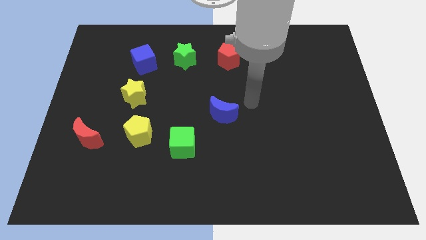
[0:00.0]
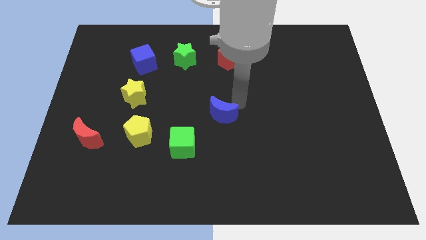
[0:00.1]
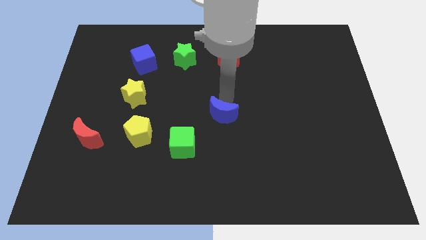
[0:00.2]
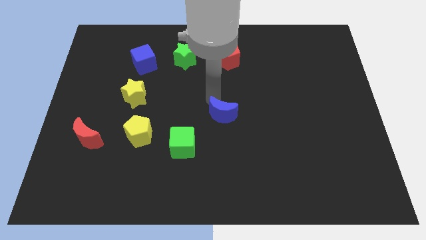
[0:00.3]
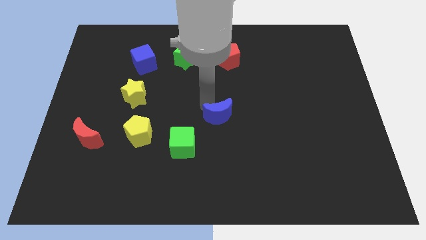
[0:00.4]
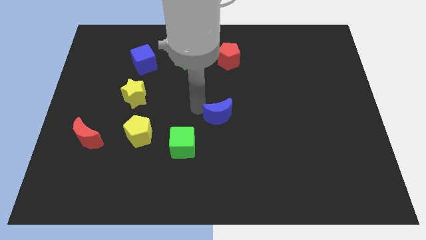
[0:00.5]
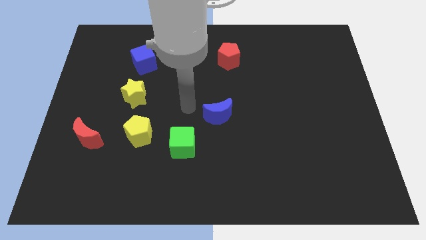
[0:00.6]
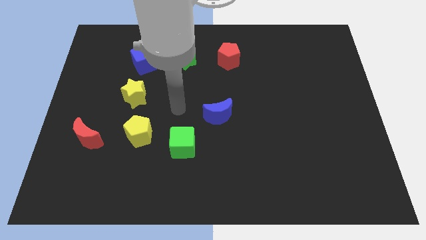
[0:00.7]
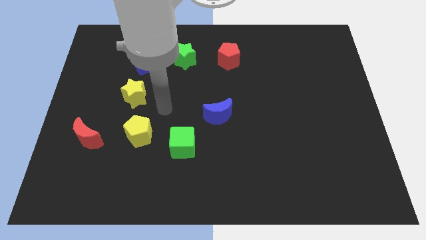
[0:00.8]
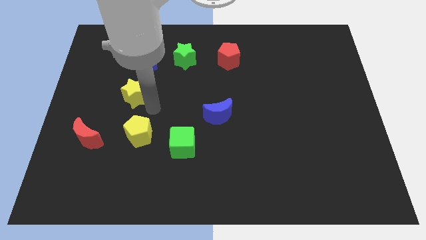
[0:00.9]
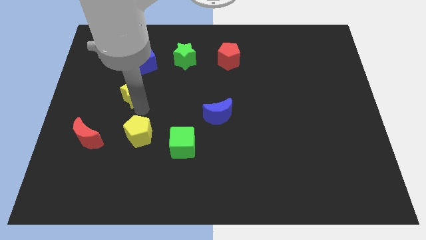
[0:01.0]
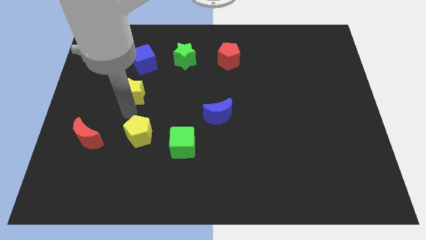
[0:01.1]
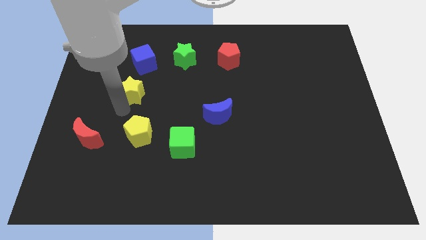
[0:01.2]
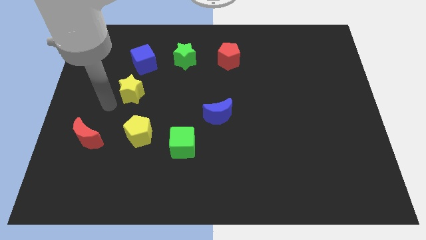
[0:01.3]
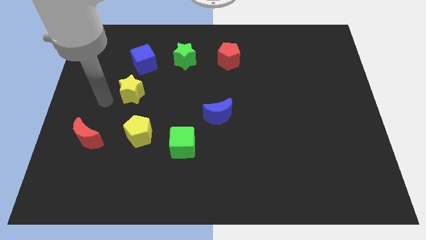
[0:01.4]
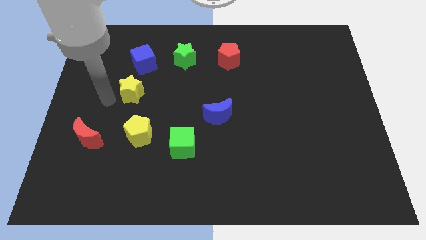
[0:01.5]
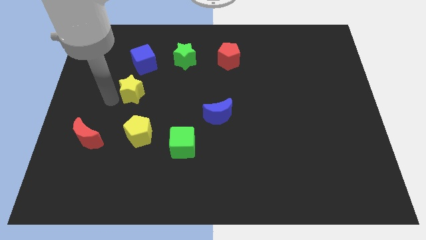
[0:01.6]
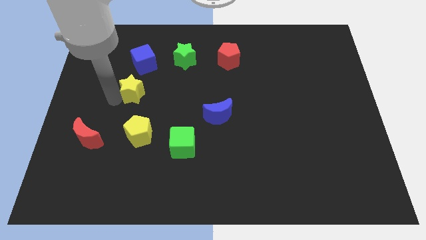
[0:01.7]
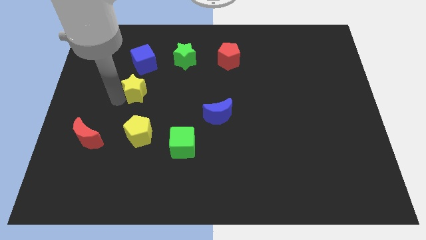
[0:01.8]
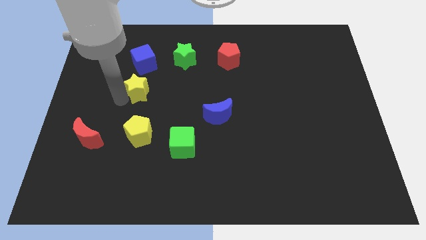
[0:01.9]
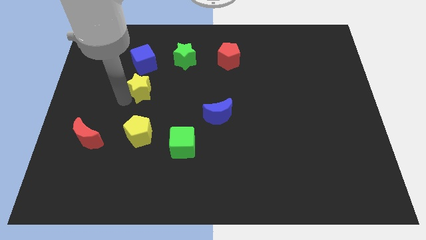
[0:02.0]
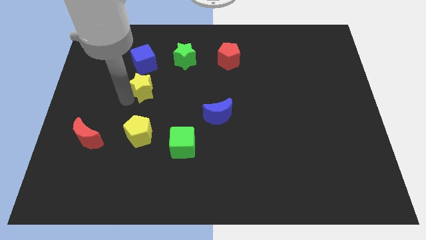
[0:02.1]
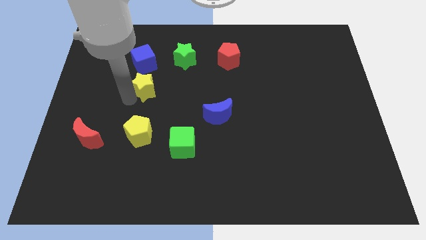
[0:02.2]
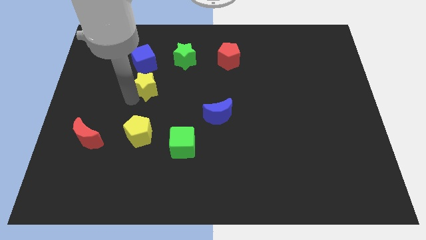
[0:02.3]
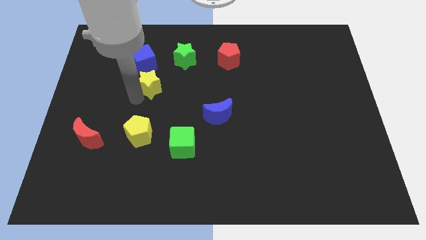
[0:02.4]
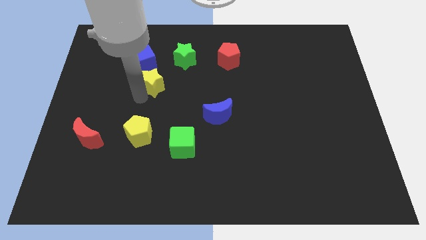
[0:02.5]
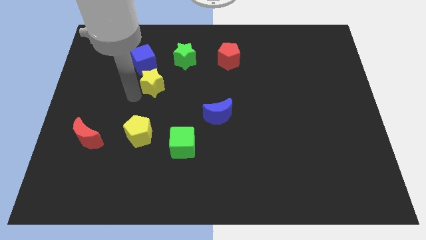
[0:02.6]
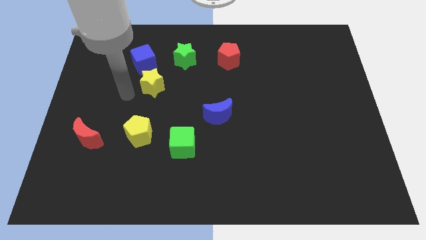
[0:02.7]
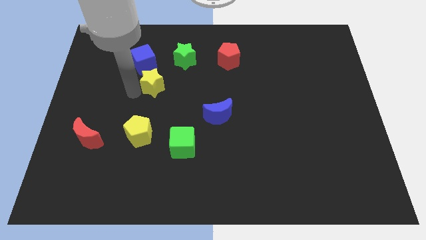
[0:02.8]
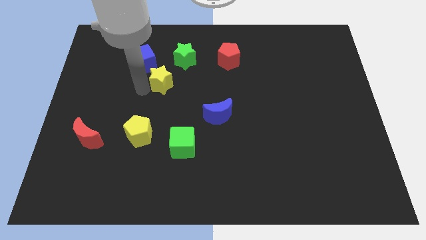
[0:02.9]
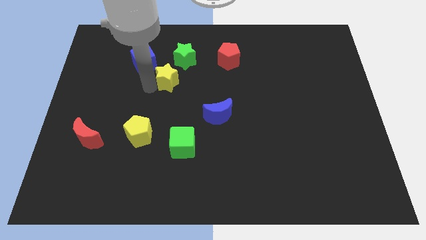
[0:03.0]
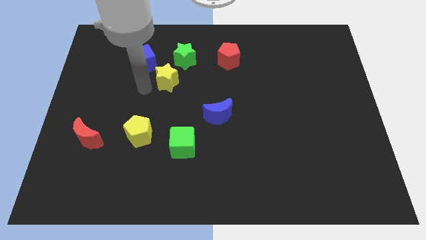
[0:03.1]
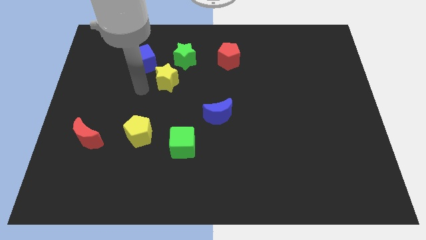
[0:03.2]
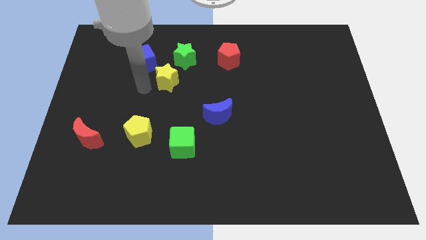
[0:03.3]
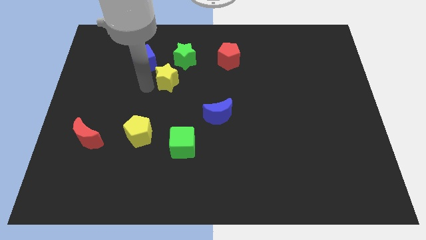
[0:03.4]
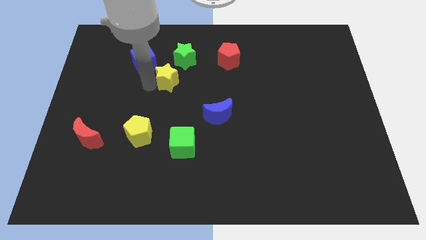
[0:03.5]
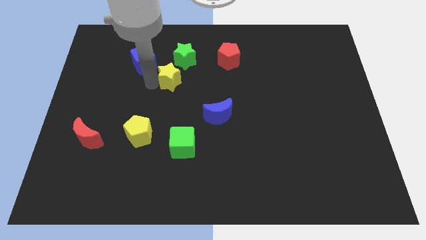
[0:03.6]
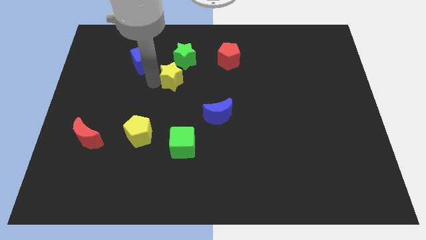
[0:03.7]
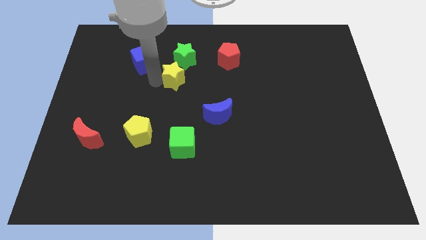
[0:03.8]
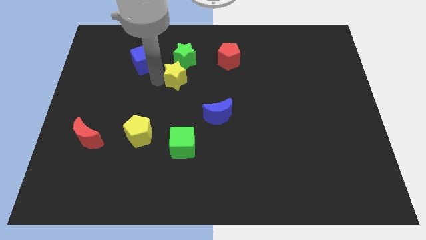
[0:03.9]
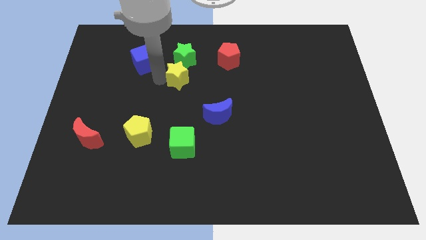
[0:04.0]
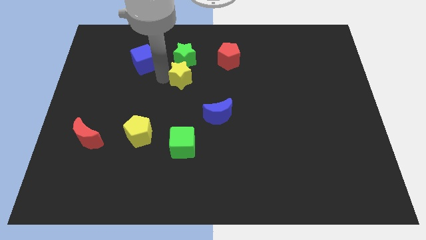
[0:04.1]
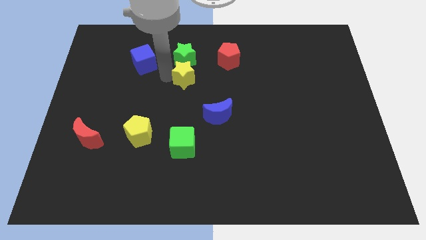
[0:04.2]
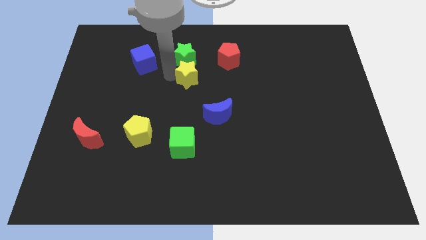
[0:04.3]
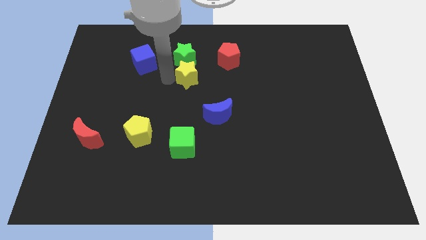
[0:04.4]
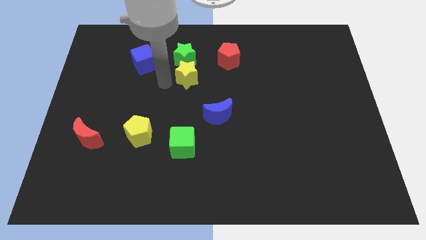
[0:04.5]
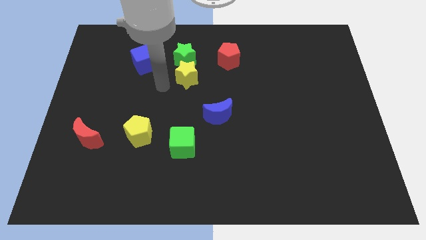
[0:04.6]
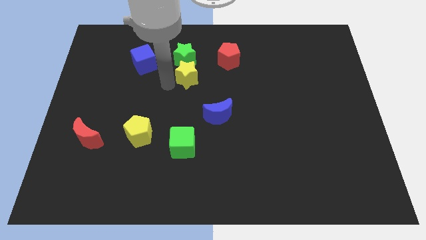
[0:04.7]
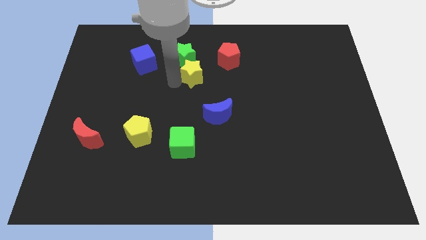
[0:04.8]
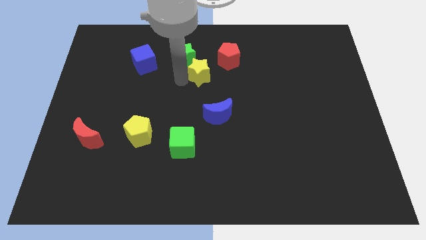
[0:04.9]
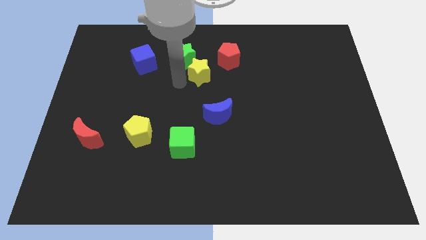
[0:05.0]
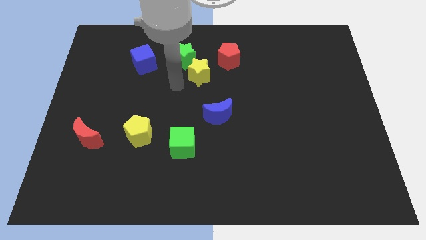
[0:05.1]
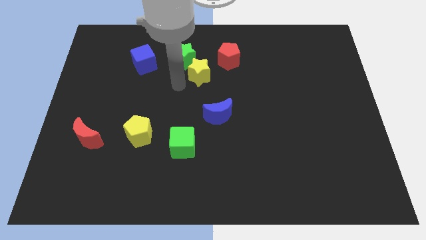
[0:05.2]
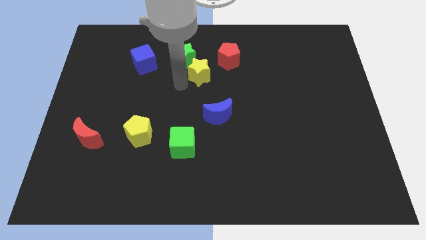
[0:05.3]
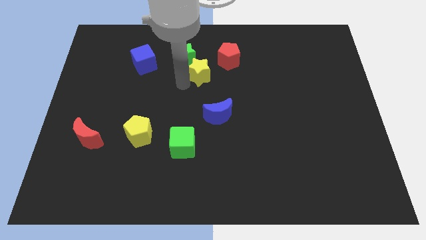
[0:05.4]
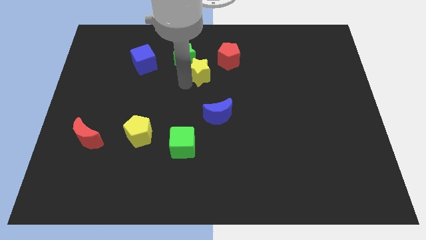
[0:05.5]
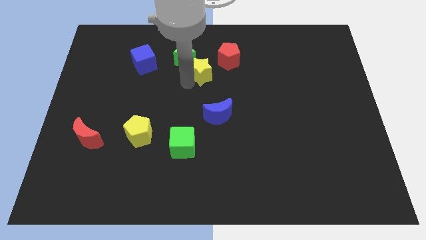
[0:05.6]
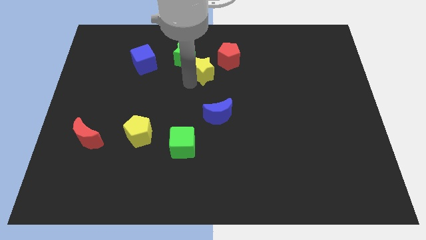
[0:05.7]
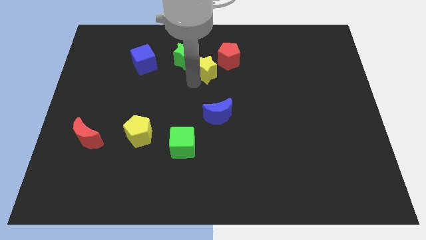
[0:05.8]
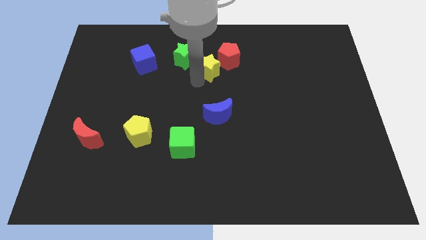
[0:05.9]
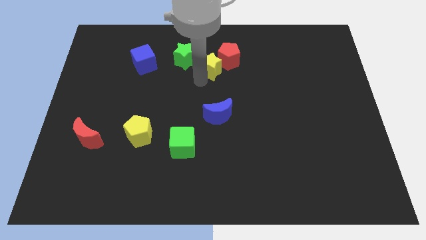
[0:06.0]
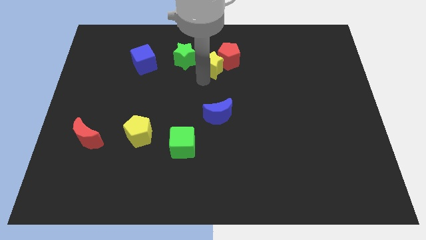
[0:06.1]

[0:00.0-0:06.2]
put the yellow star close to the red pentagon

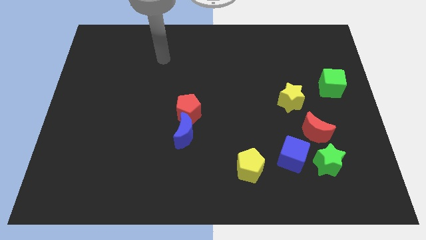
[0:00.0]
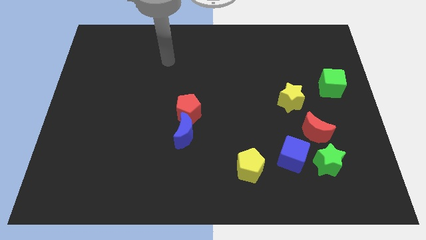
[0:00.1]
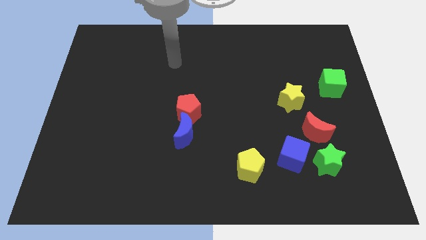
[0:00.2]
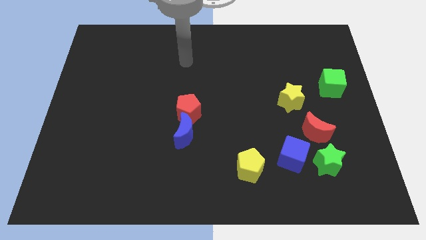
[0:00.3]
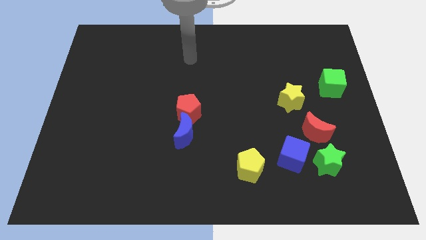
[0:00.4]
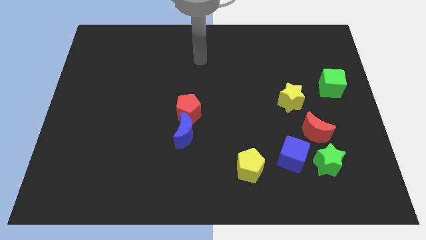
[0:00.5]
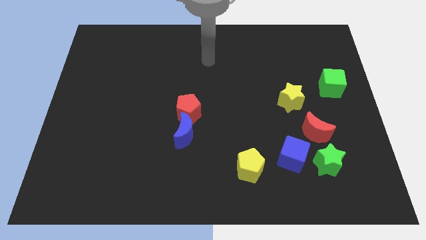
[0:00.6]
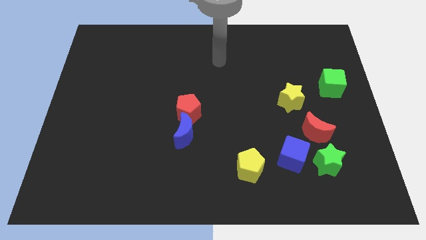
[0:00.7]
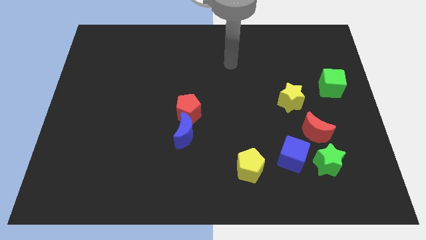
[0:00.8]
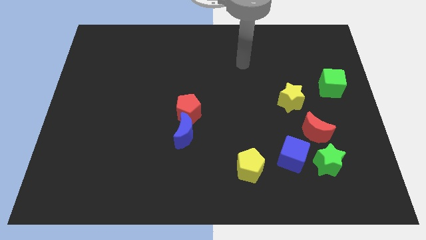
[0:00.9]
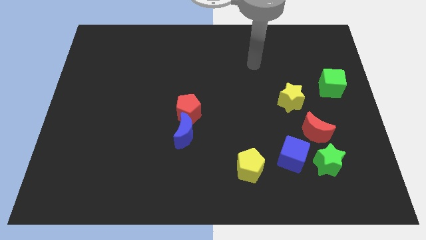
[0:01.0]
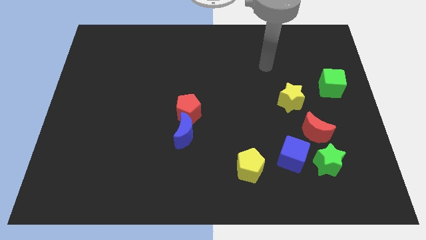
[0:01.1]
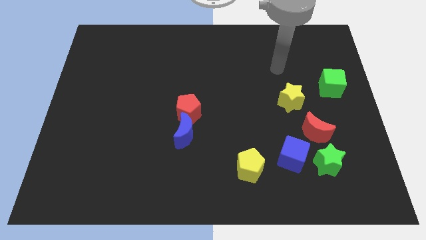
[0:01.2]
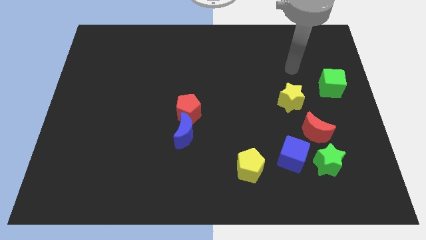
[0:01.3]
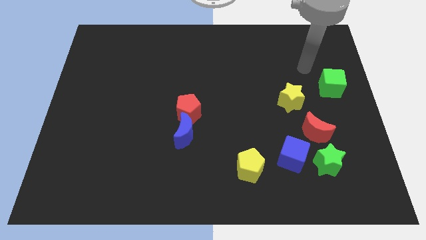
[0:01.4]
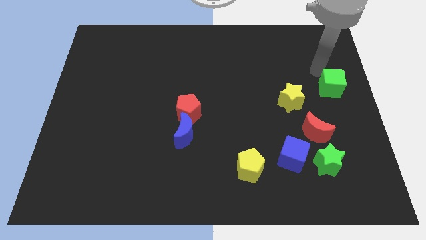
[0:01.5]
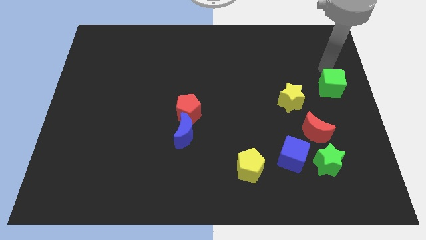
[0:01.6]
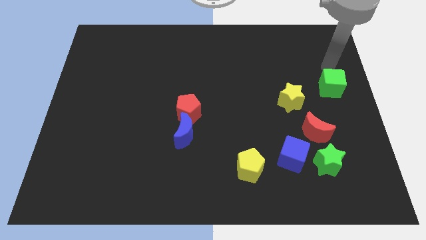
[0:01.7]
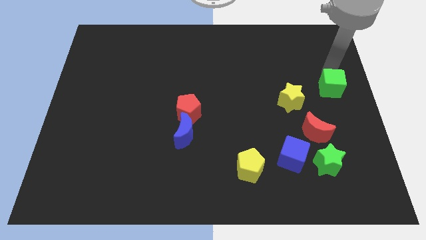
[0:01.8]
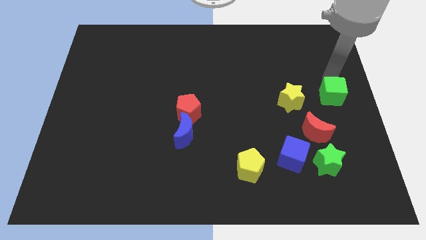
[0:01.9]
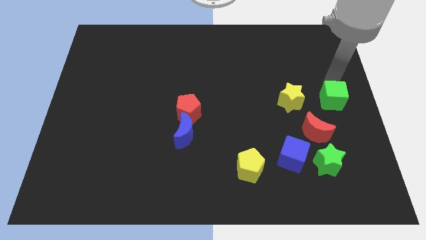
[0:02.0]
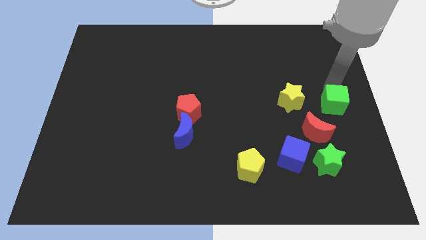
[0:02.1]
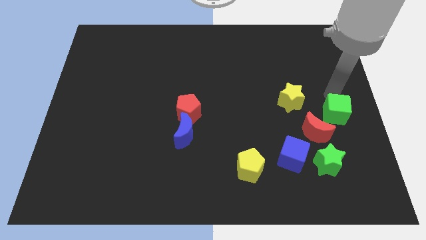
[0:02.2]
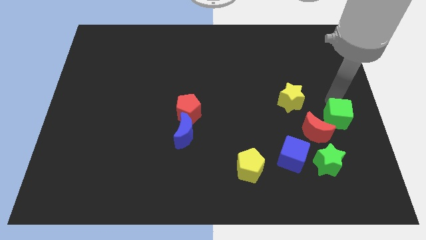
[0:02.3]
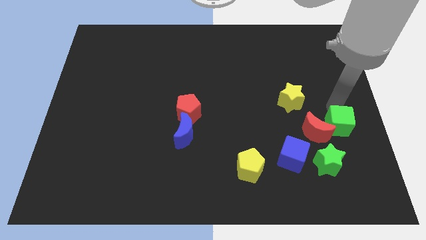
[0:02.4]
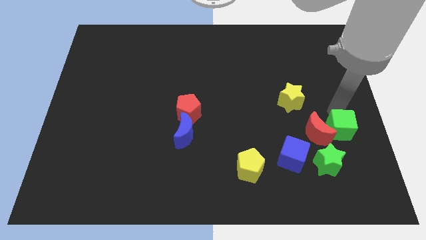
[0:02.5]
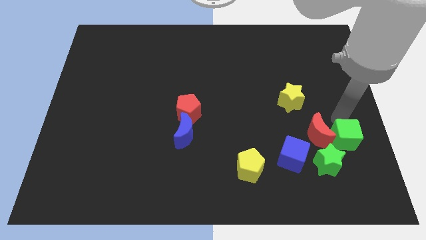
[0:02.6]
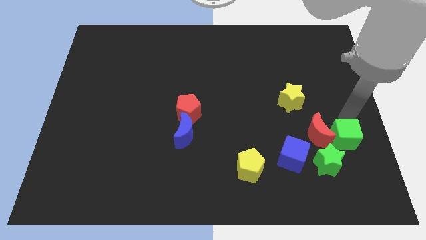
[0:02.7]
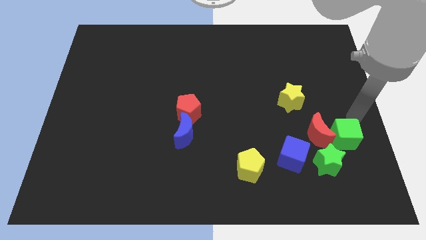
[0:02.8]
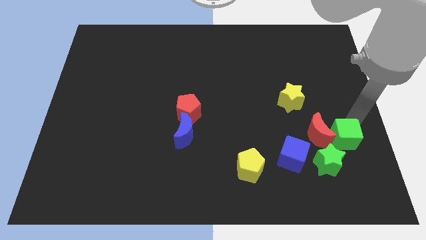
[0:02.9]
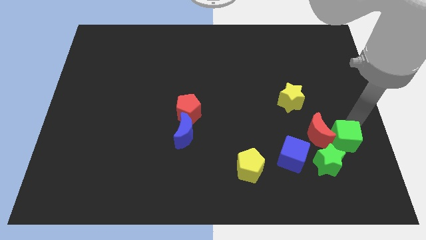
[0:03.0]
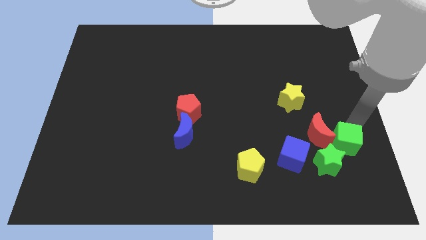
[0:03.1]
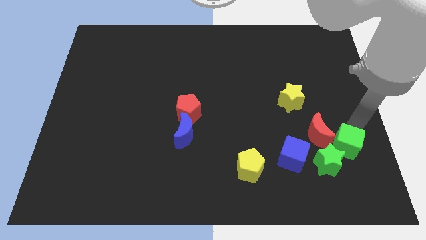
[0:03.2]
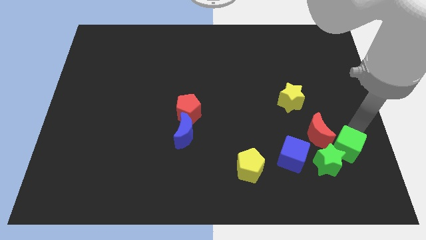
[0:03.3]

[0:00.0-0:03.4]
move the green cube towards the green star
